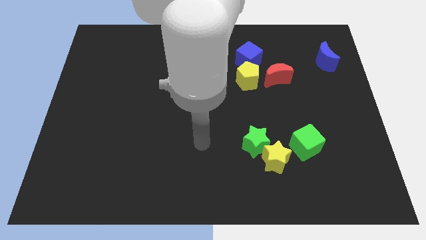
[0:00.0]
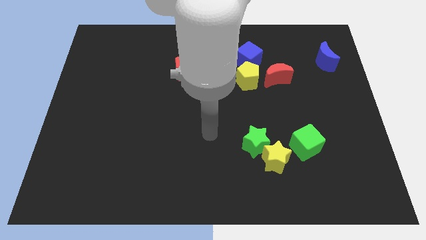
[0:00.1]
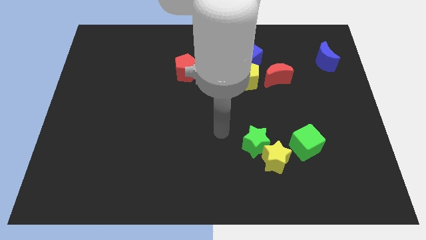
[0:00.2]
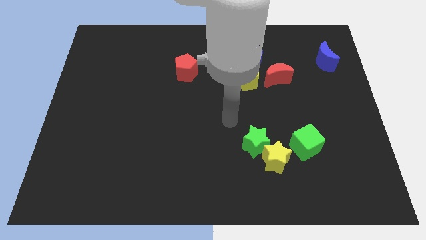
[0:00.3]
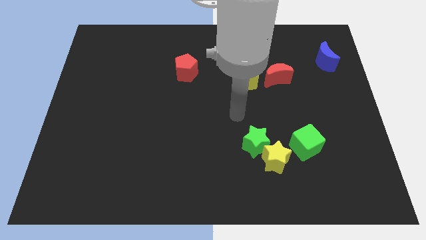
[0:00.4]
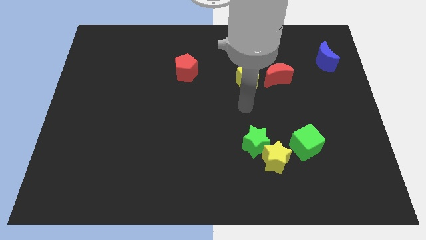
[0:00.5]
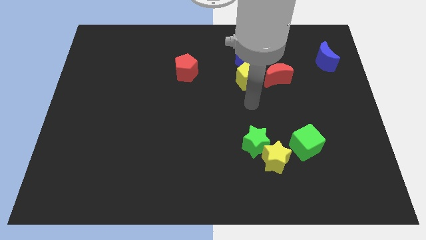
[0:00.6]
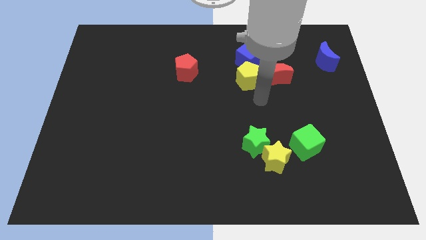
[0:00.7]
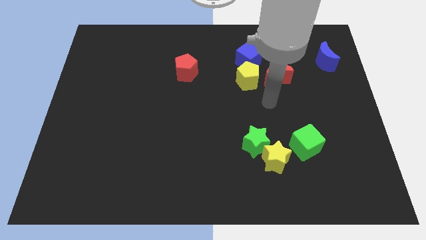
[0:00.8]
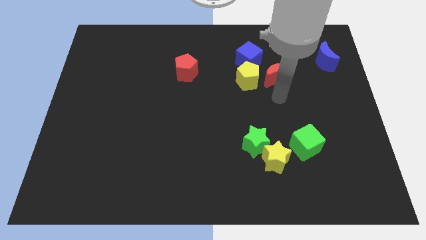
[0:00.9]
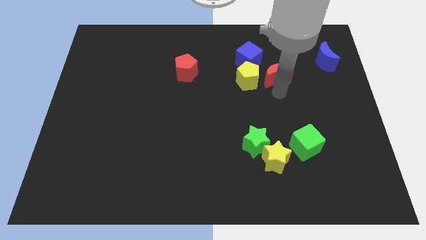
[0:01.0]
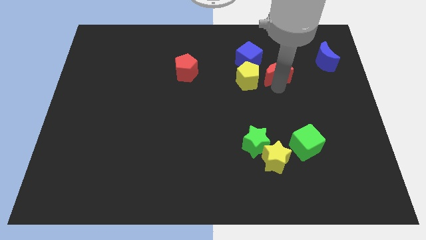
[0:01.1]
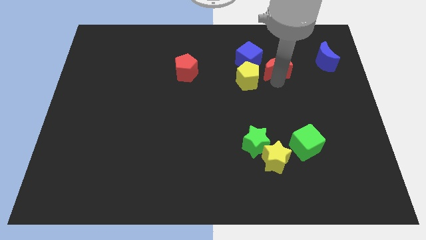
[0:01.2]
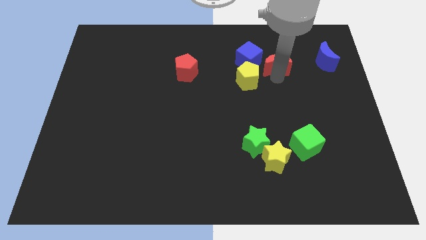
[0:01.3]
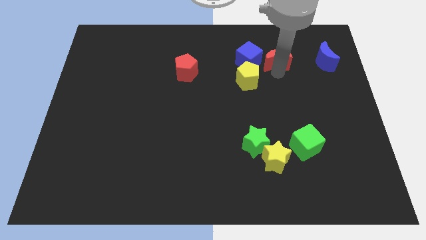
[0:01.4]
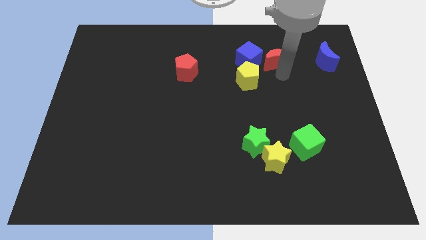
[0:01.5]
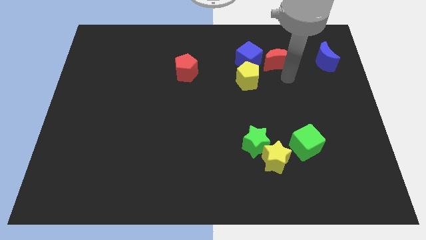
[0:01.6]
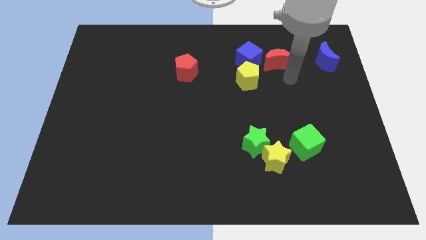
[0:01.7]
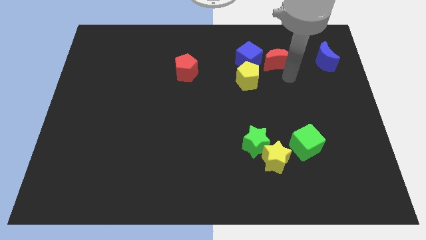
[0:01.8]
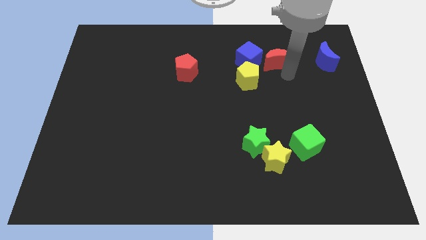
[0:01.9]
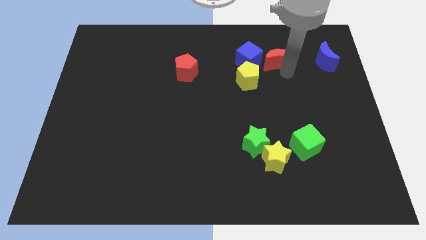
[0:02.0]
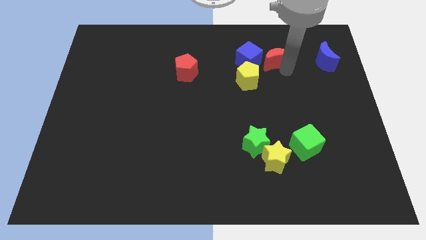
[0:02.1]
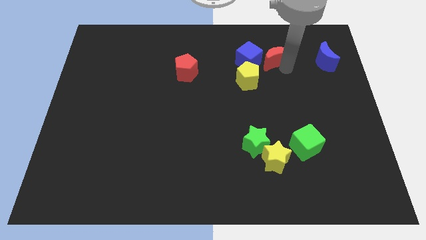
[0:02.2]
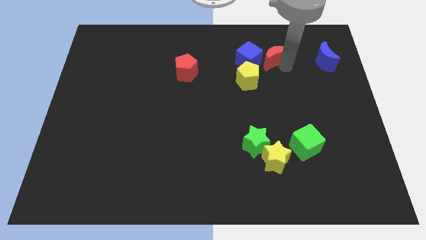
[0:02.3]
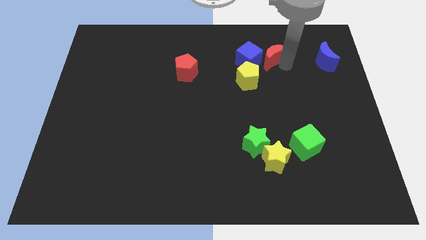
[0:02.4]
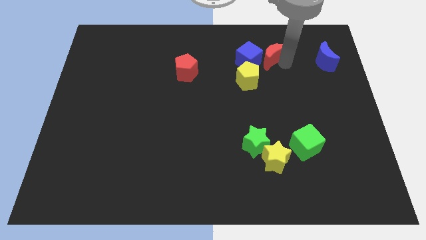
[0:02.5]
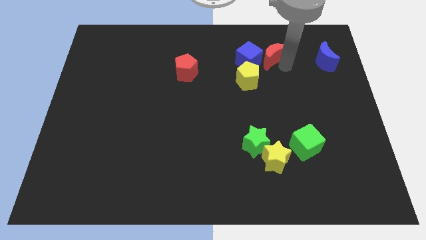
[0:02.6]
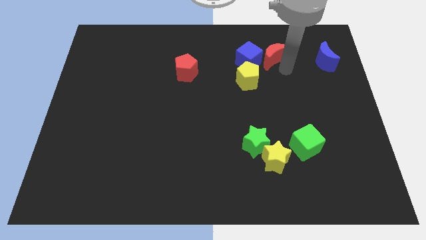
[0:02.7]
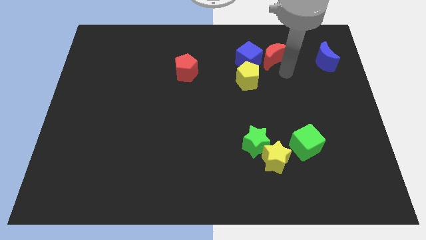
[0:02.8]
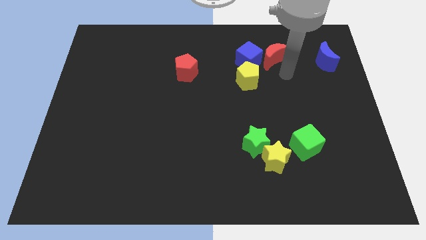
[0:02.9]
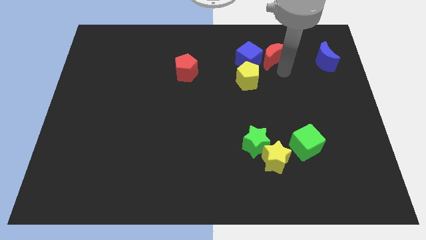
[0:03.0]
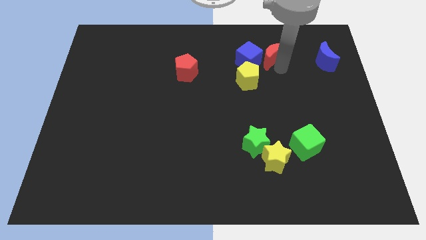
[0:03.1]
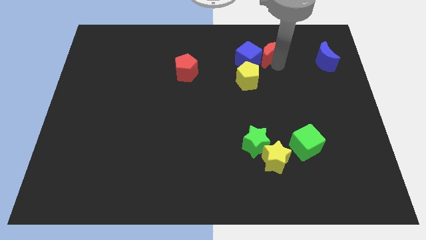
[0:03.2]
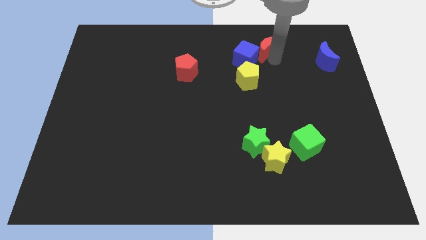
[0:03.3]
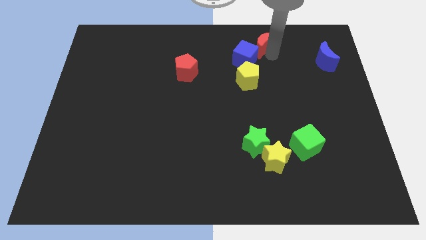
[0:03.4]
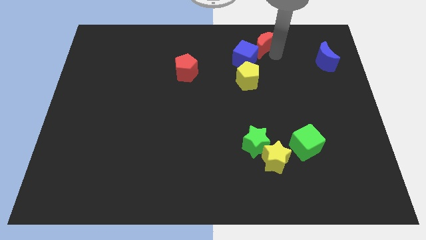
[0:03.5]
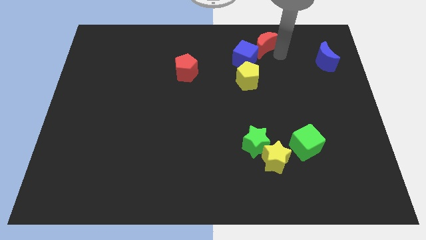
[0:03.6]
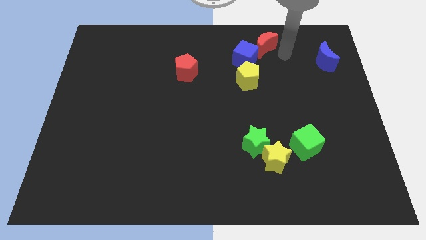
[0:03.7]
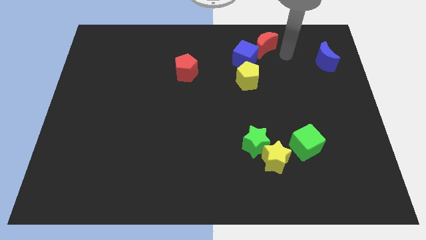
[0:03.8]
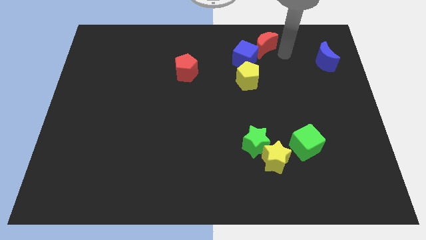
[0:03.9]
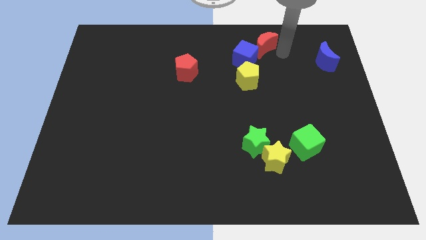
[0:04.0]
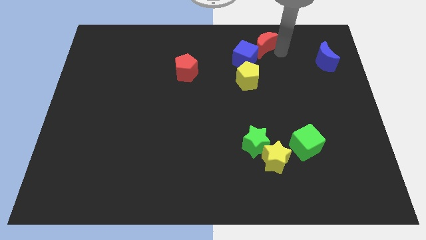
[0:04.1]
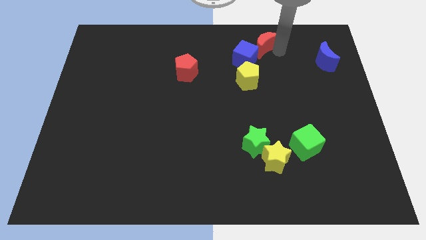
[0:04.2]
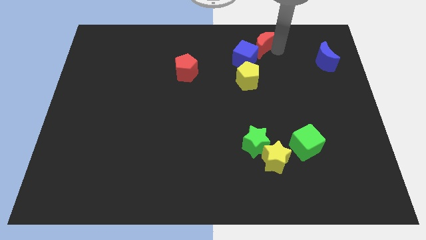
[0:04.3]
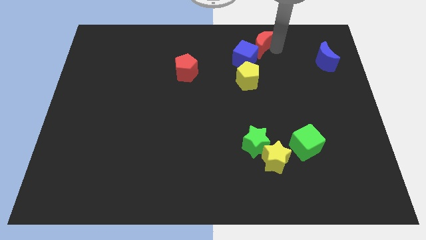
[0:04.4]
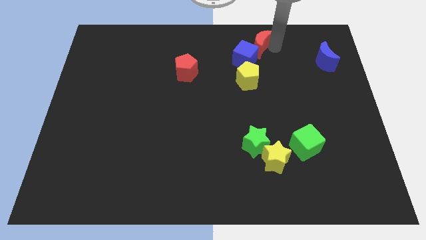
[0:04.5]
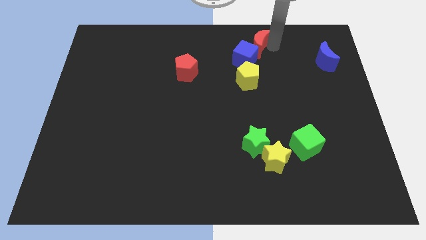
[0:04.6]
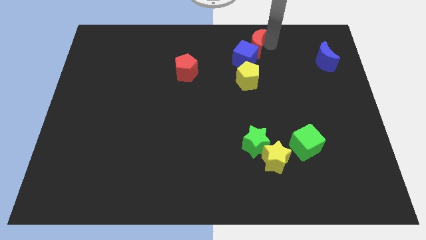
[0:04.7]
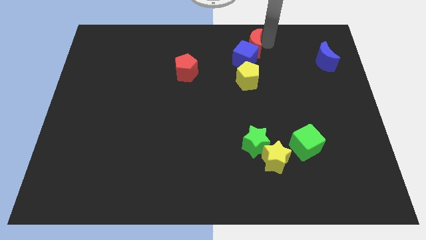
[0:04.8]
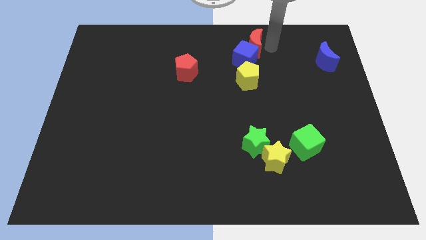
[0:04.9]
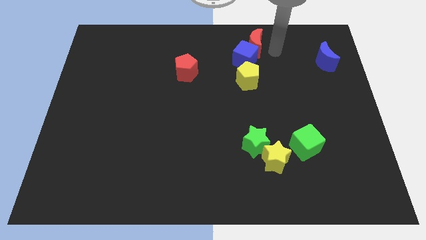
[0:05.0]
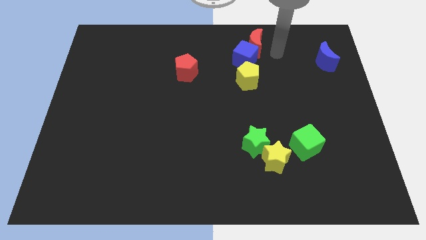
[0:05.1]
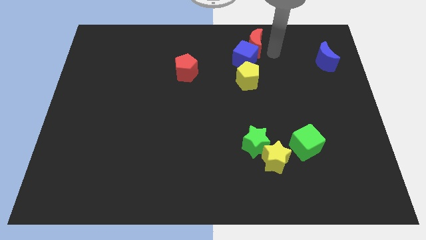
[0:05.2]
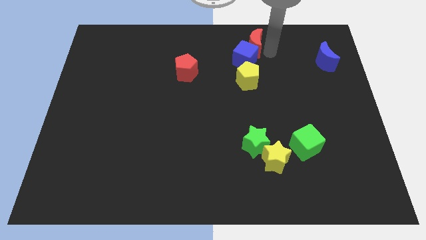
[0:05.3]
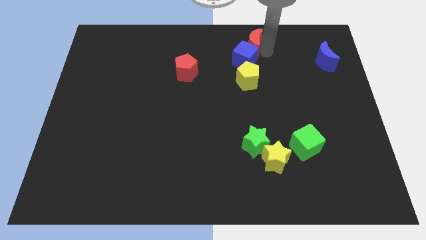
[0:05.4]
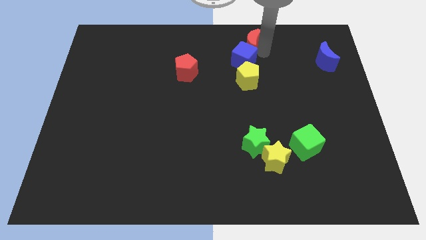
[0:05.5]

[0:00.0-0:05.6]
slide the red moon to the towards your base

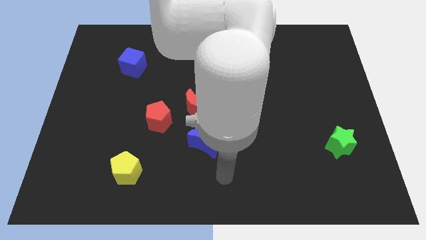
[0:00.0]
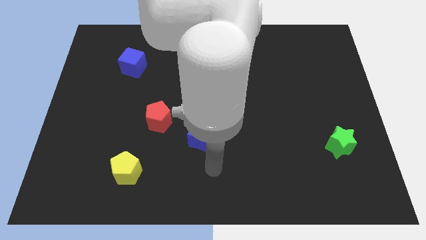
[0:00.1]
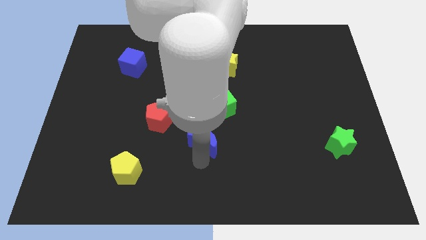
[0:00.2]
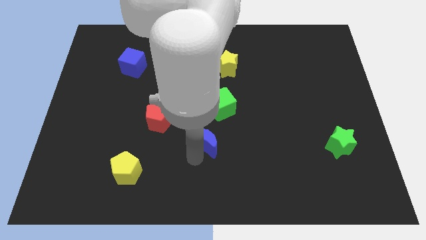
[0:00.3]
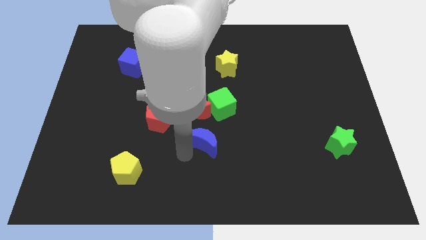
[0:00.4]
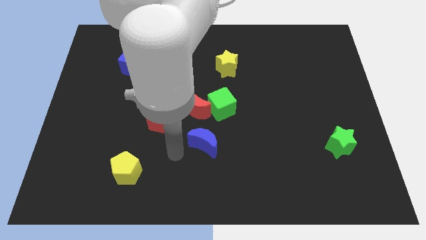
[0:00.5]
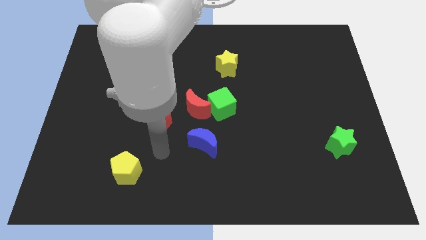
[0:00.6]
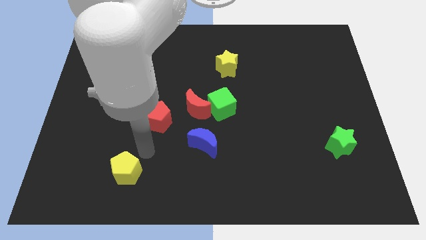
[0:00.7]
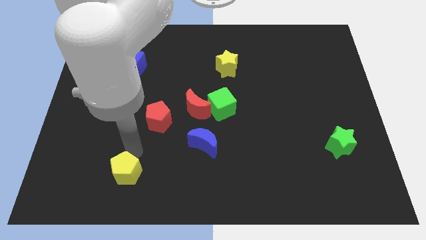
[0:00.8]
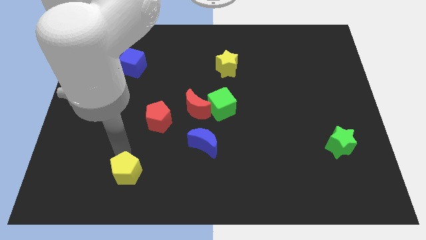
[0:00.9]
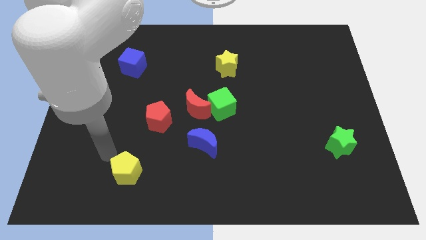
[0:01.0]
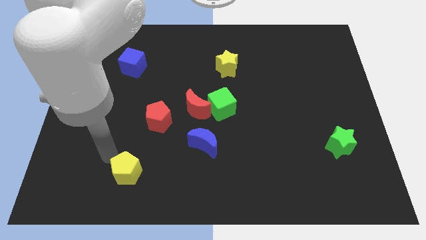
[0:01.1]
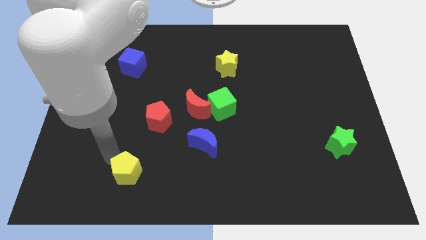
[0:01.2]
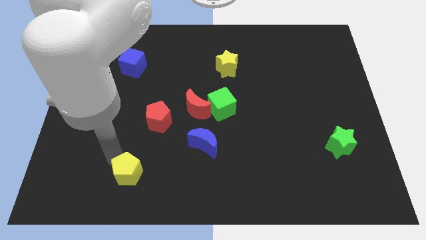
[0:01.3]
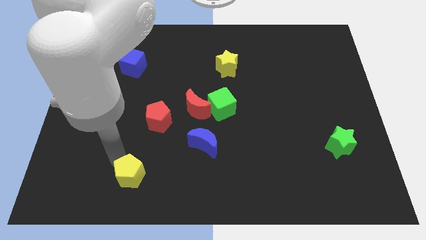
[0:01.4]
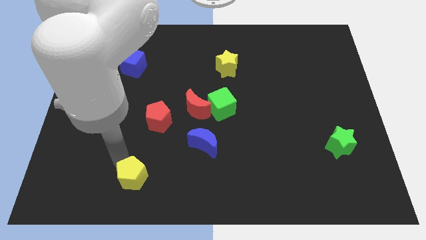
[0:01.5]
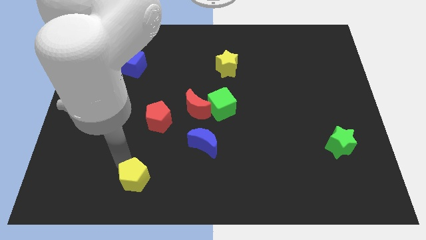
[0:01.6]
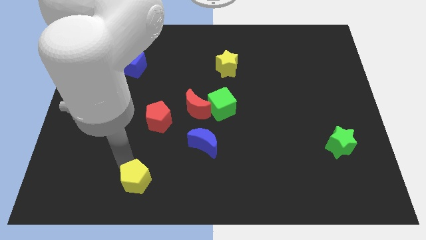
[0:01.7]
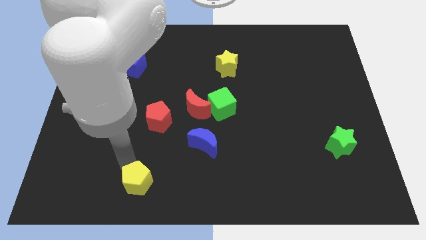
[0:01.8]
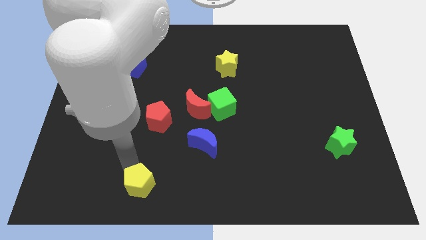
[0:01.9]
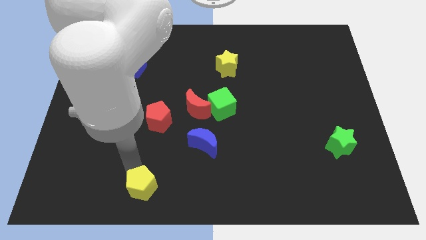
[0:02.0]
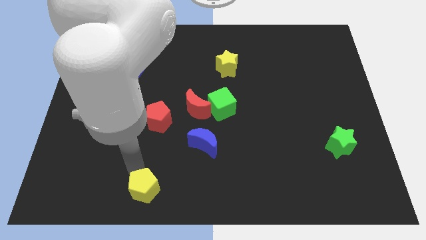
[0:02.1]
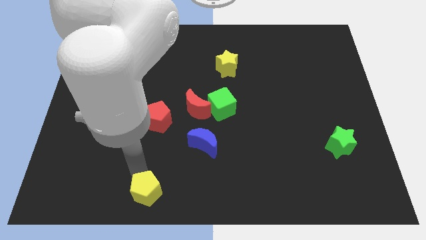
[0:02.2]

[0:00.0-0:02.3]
move the yellow pentagon to the bottom side
